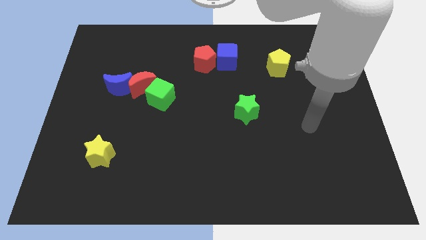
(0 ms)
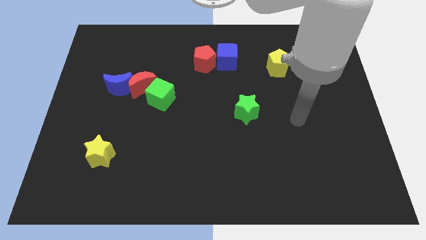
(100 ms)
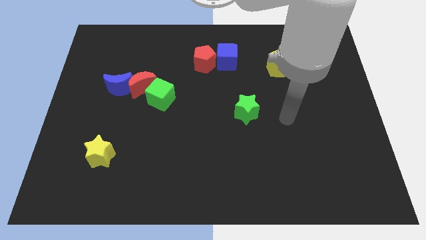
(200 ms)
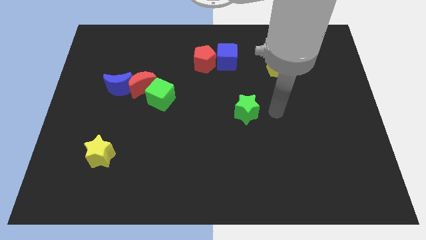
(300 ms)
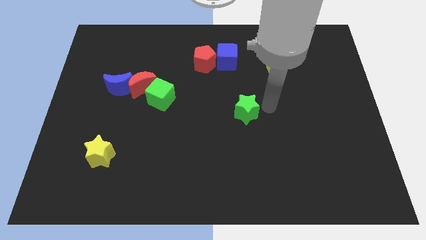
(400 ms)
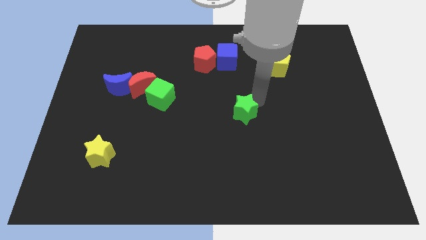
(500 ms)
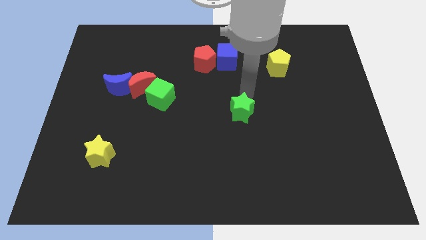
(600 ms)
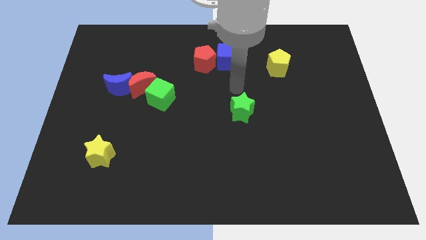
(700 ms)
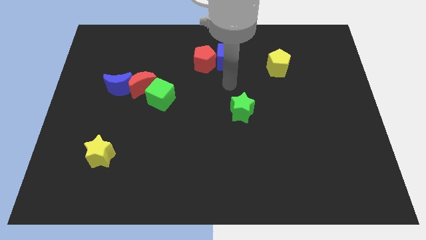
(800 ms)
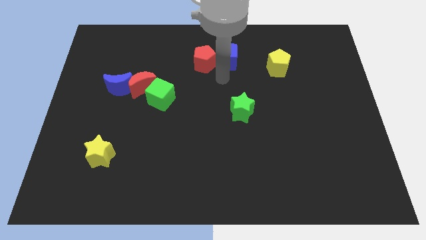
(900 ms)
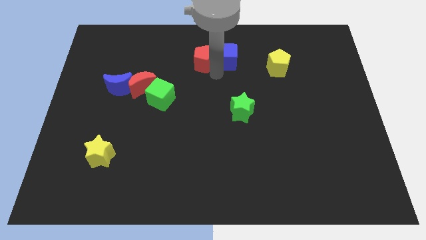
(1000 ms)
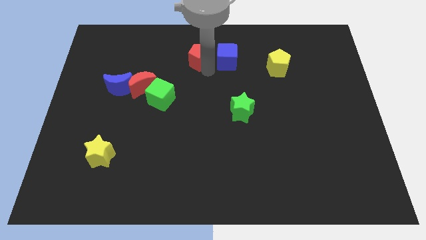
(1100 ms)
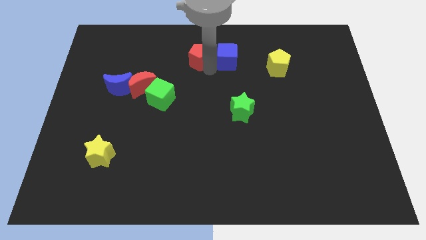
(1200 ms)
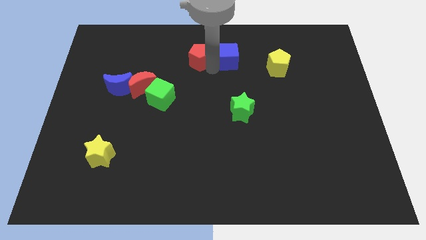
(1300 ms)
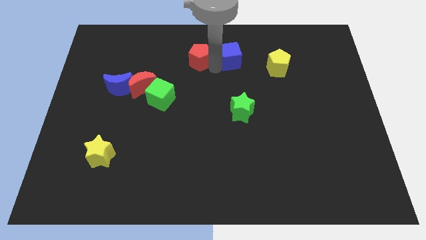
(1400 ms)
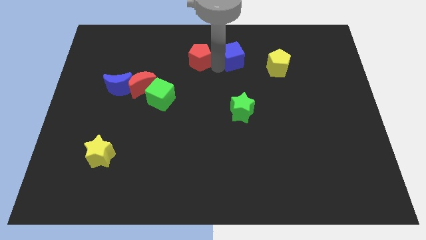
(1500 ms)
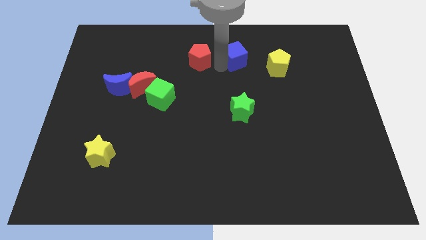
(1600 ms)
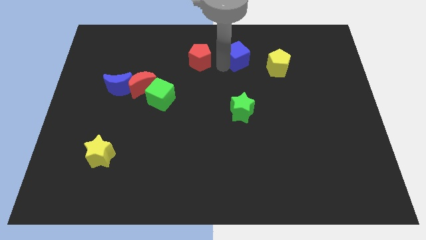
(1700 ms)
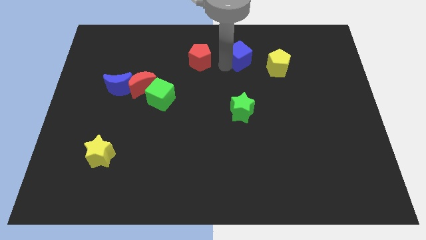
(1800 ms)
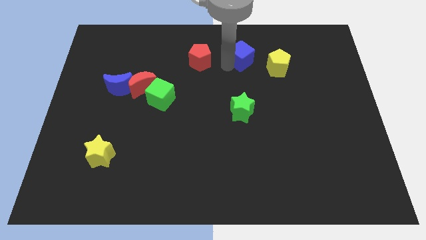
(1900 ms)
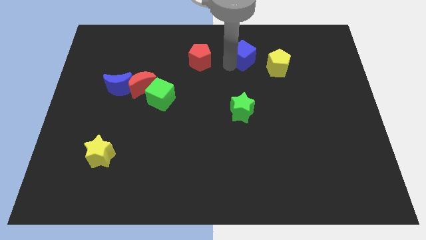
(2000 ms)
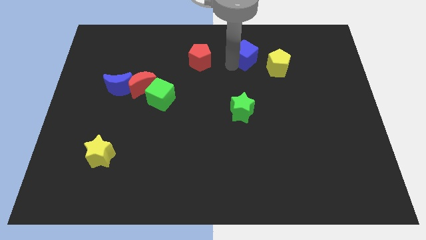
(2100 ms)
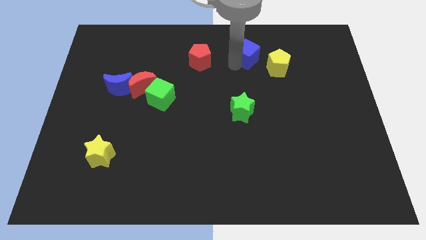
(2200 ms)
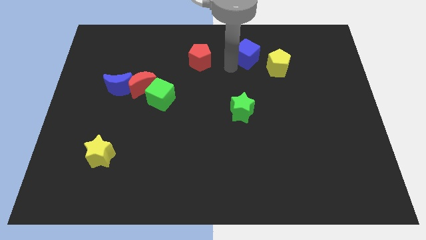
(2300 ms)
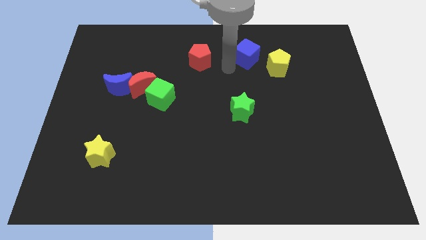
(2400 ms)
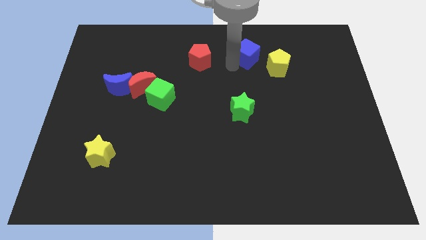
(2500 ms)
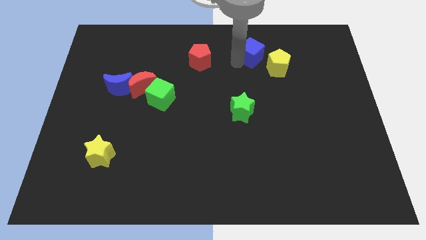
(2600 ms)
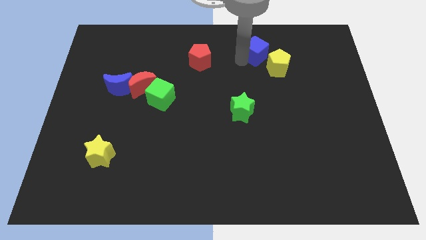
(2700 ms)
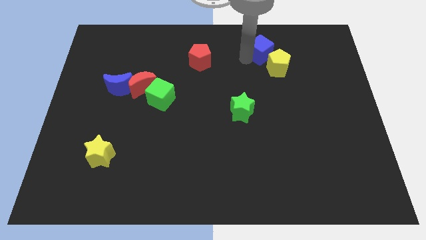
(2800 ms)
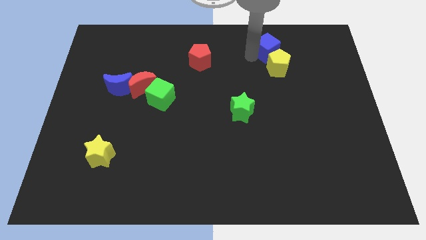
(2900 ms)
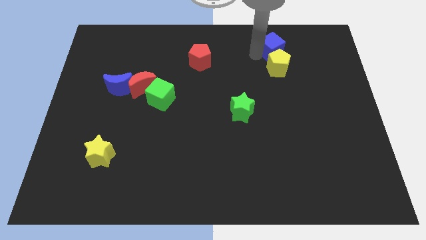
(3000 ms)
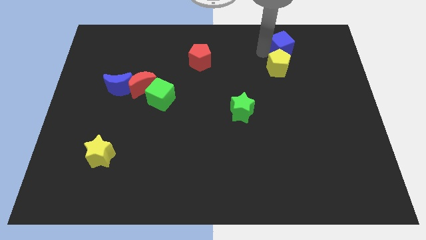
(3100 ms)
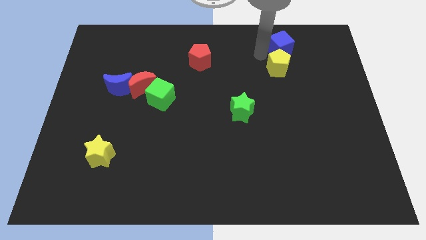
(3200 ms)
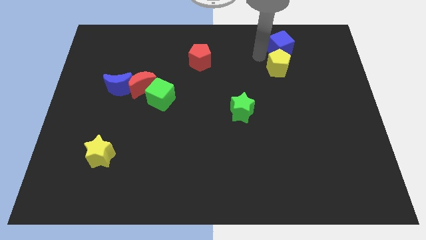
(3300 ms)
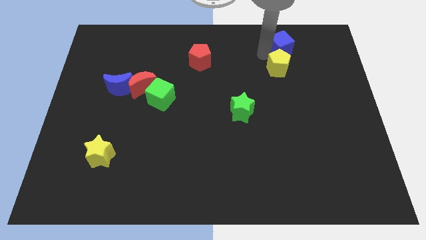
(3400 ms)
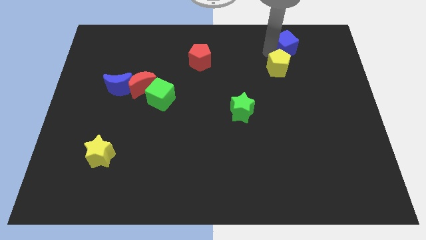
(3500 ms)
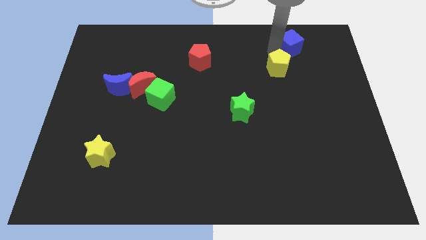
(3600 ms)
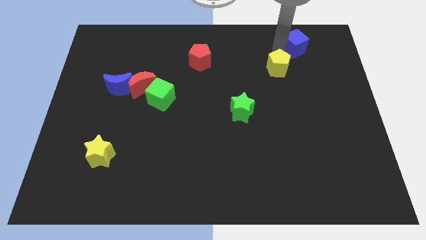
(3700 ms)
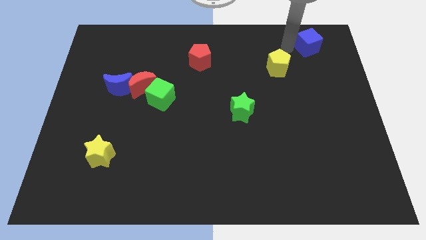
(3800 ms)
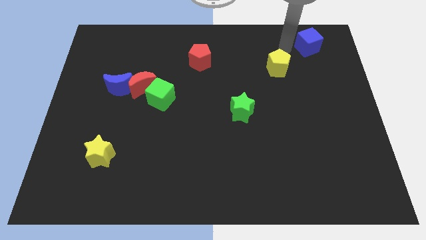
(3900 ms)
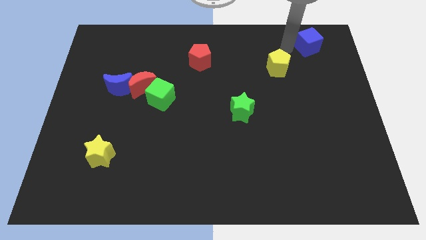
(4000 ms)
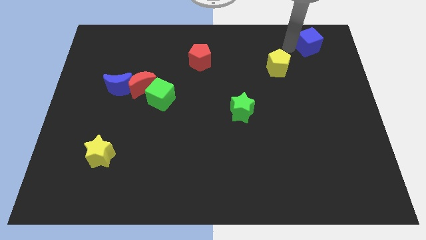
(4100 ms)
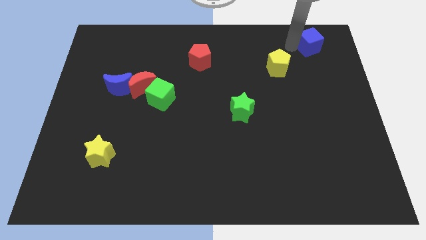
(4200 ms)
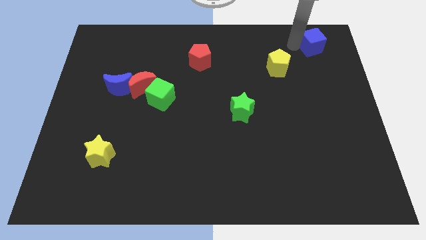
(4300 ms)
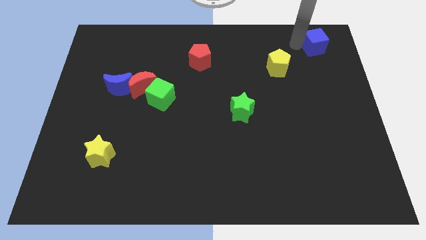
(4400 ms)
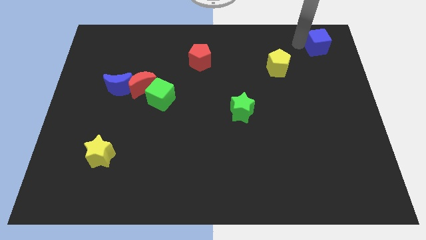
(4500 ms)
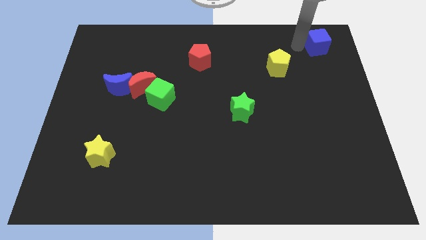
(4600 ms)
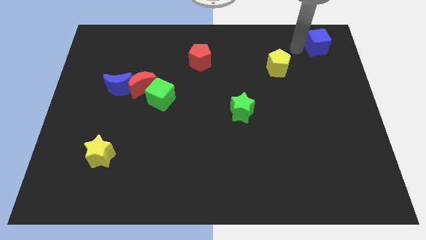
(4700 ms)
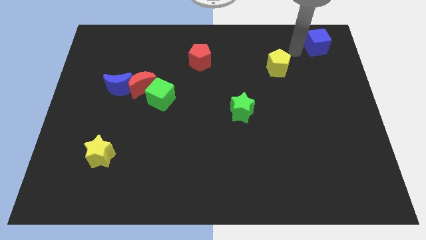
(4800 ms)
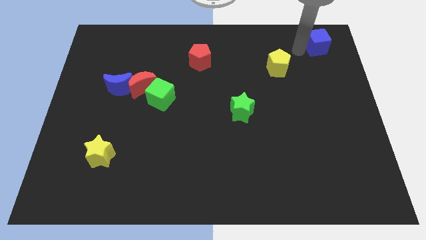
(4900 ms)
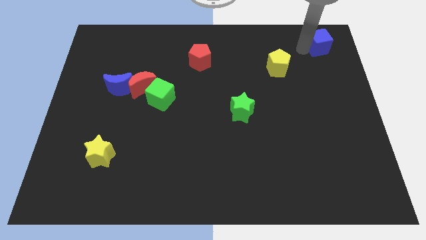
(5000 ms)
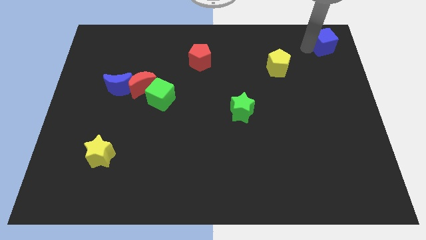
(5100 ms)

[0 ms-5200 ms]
push the blue cube to the top right of the board

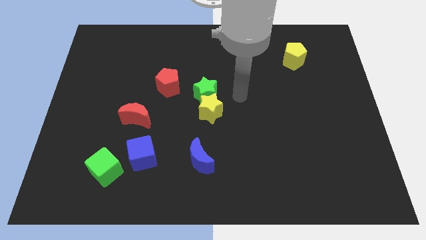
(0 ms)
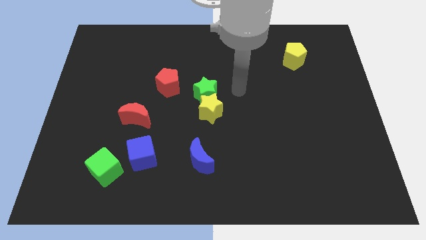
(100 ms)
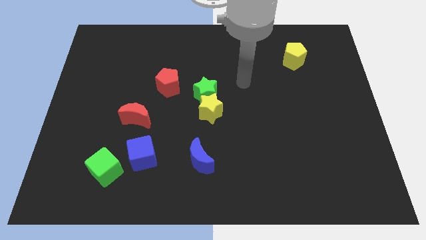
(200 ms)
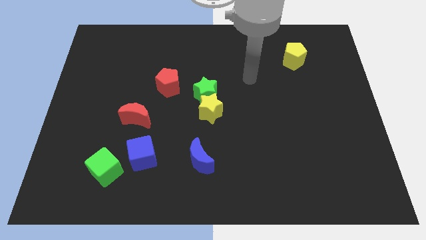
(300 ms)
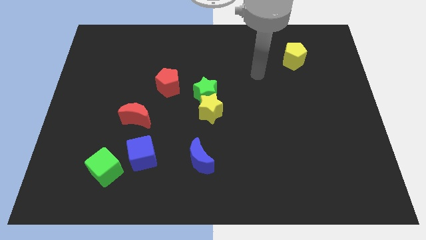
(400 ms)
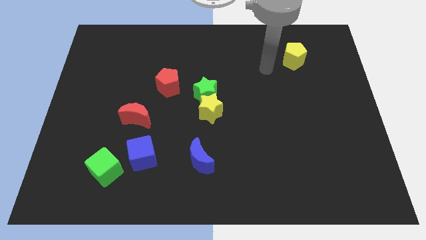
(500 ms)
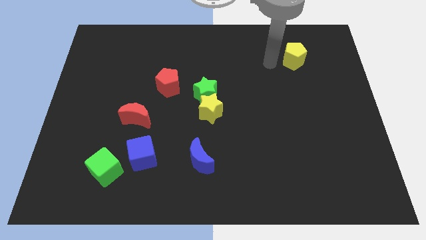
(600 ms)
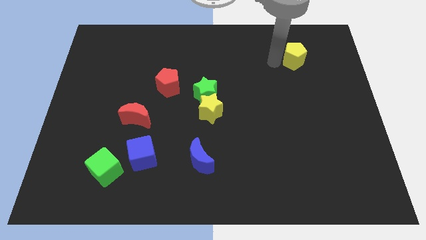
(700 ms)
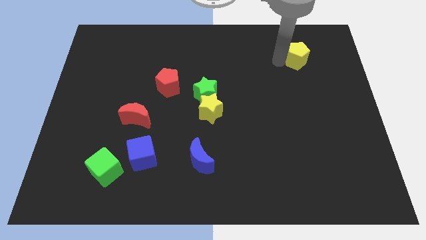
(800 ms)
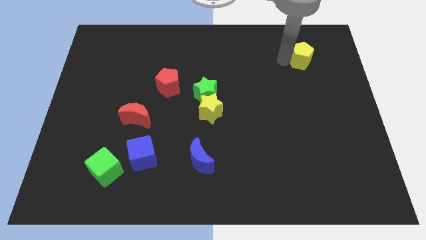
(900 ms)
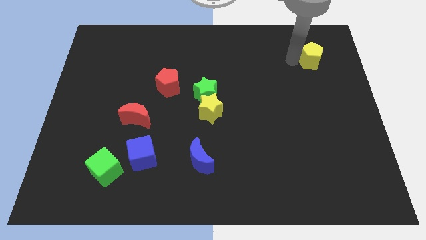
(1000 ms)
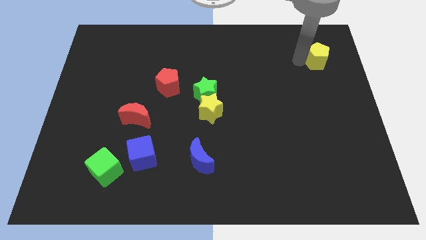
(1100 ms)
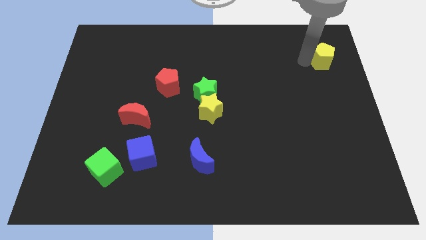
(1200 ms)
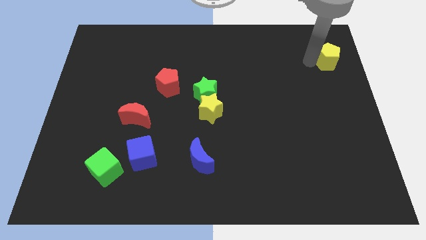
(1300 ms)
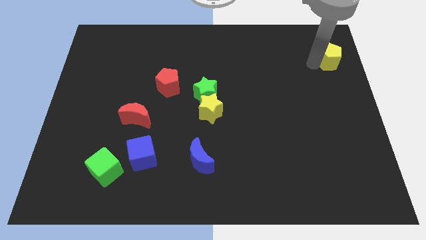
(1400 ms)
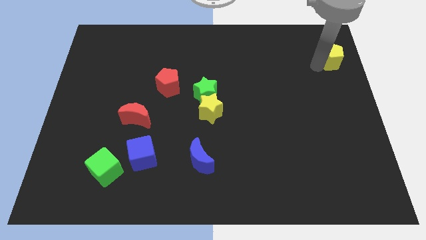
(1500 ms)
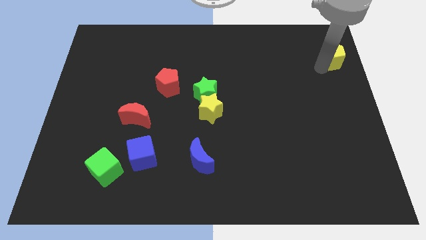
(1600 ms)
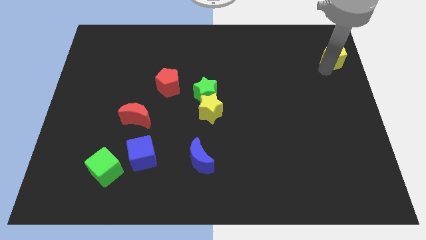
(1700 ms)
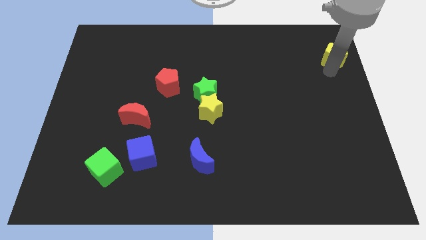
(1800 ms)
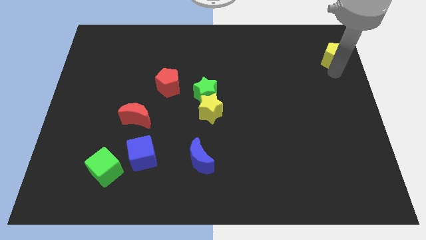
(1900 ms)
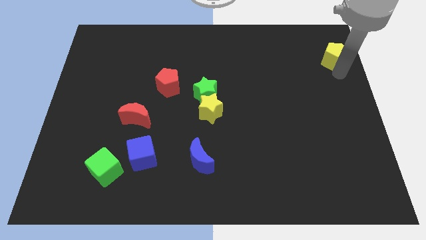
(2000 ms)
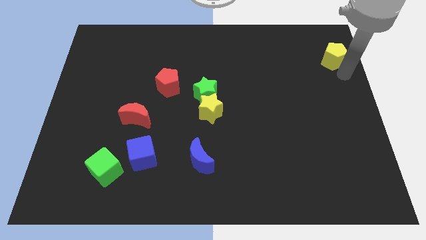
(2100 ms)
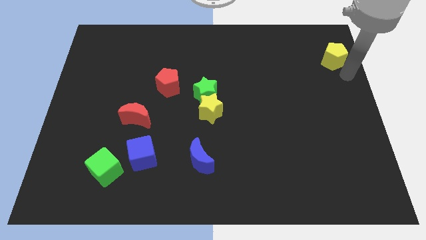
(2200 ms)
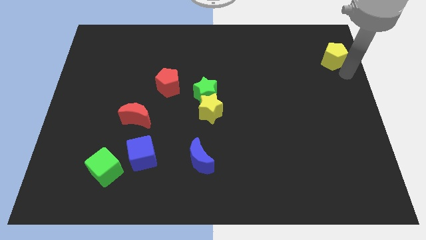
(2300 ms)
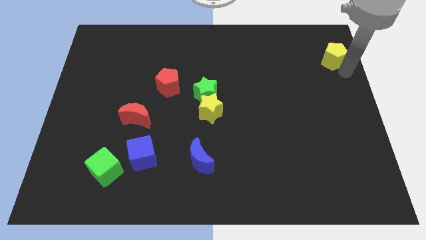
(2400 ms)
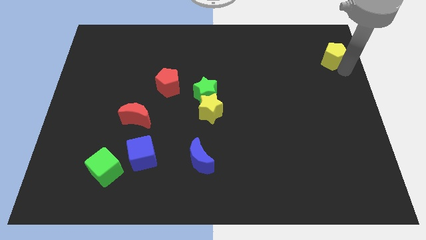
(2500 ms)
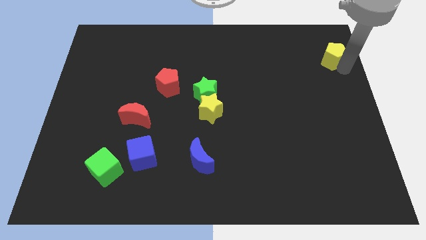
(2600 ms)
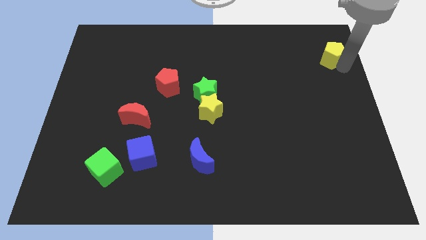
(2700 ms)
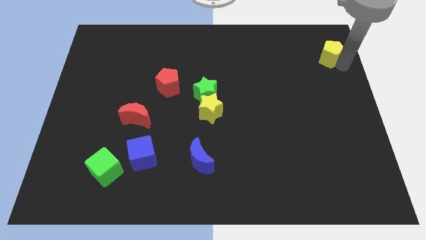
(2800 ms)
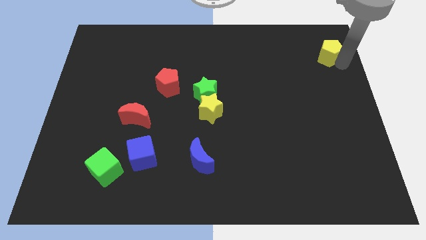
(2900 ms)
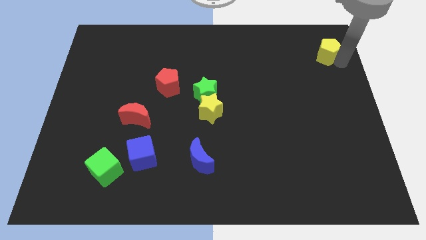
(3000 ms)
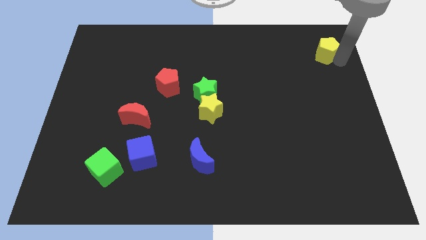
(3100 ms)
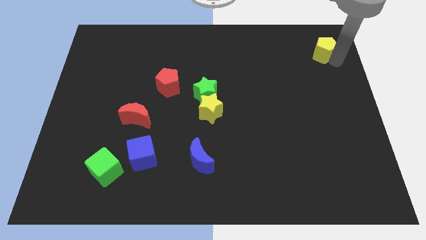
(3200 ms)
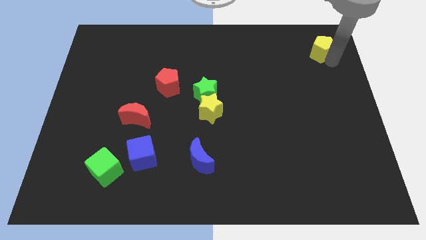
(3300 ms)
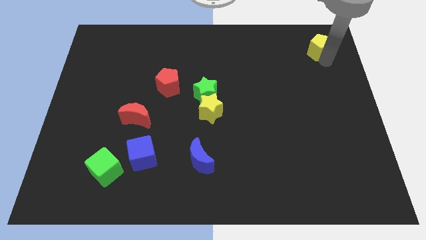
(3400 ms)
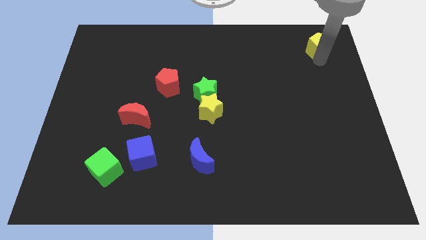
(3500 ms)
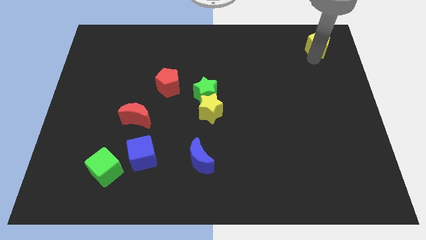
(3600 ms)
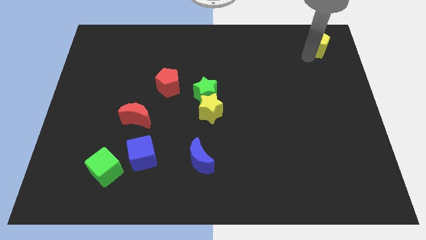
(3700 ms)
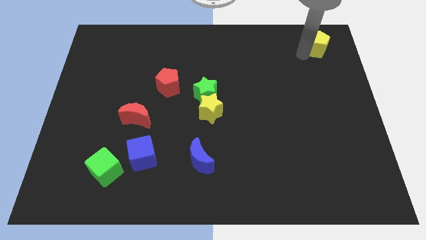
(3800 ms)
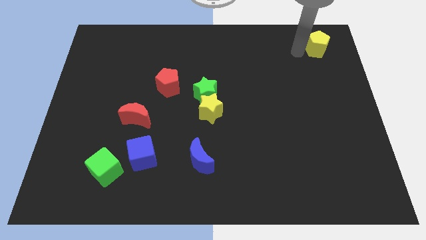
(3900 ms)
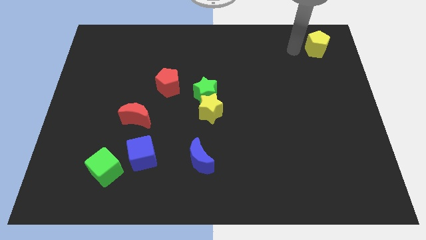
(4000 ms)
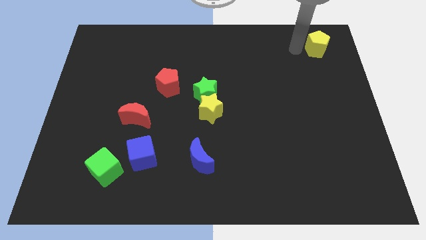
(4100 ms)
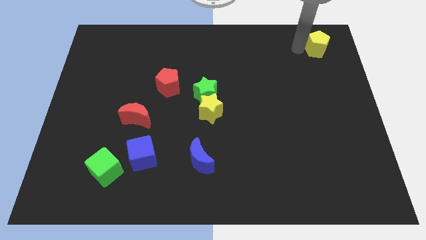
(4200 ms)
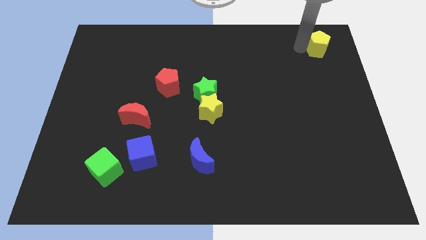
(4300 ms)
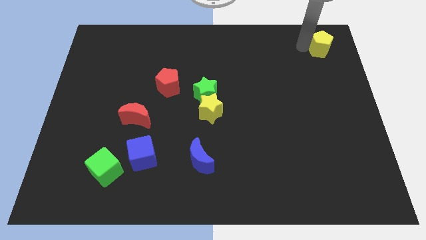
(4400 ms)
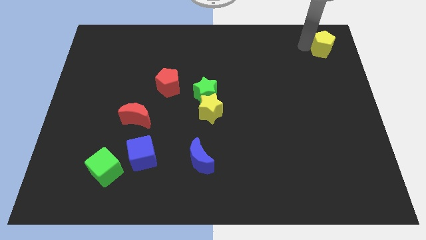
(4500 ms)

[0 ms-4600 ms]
move the yellow pentagon to the top right corner
